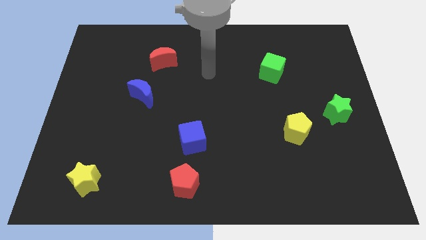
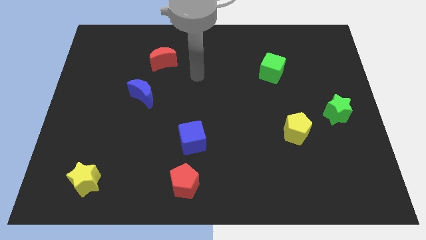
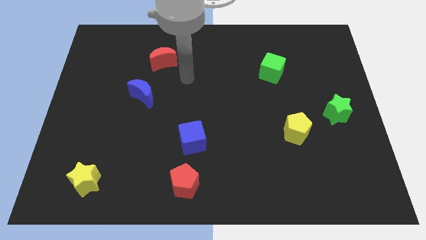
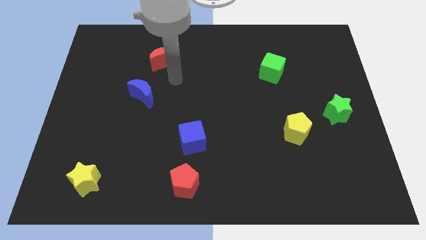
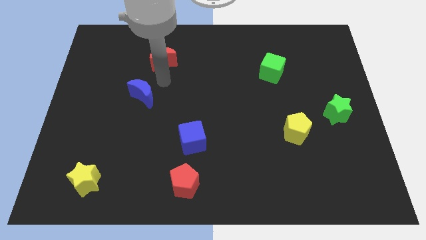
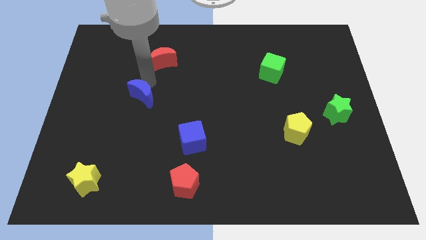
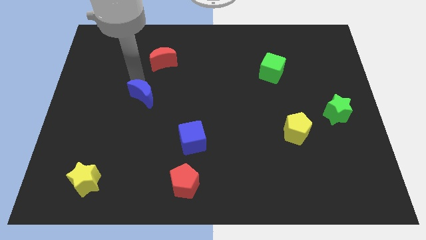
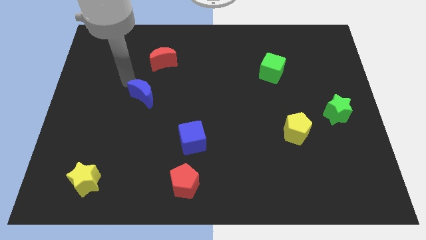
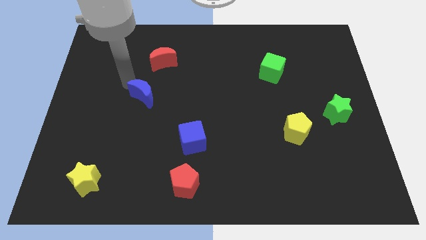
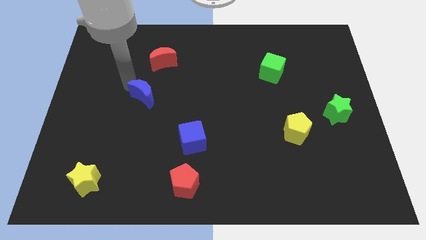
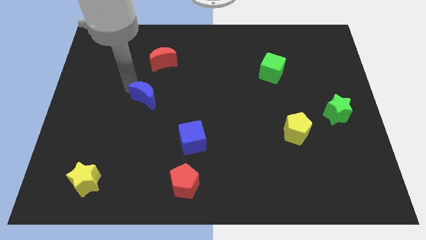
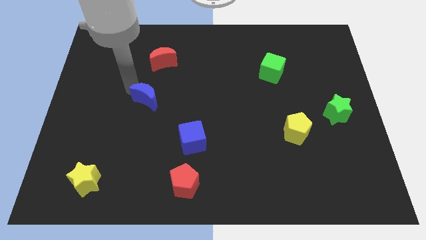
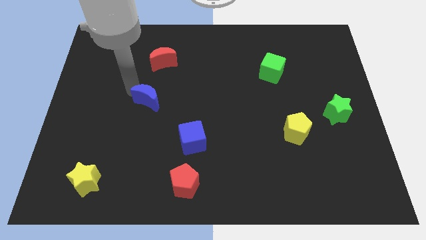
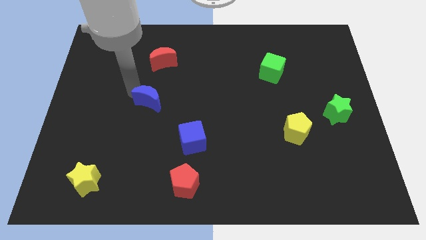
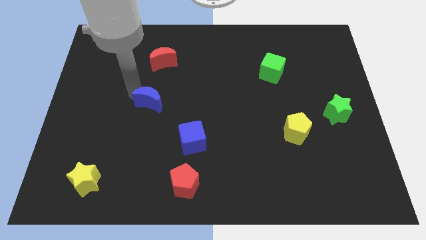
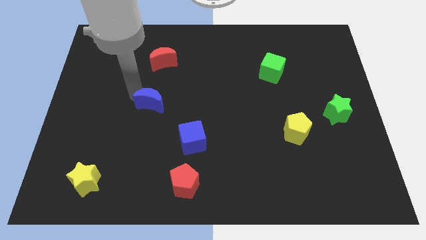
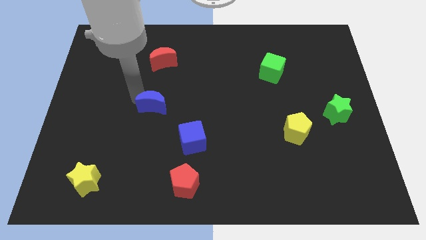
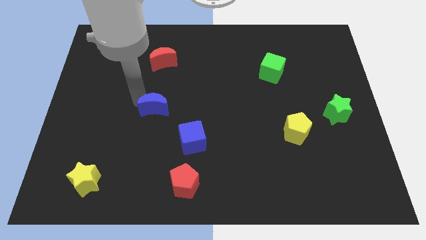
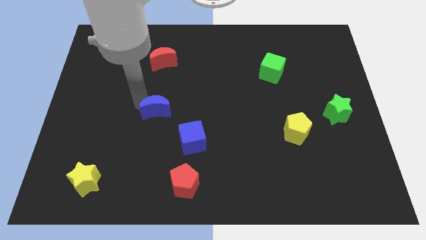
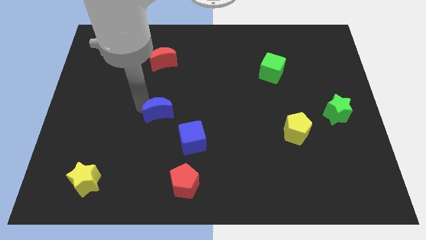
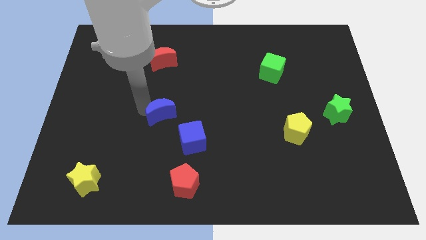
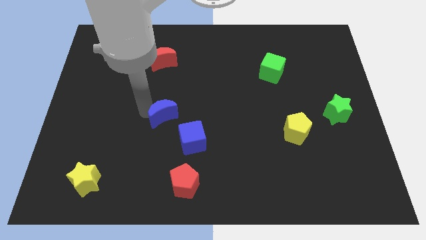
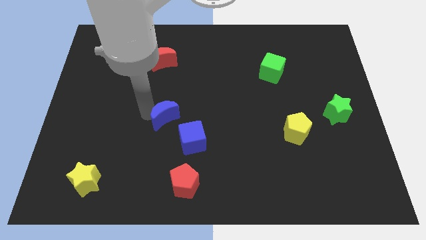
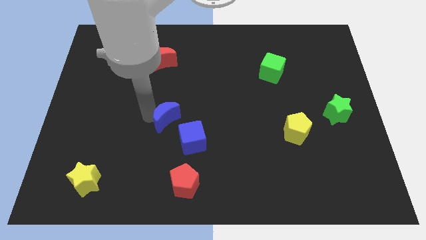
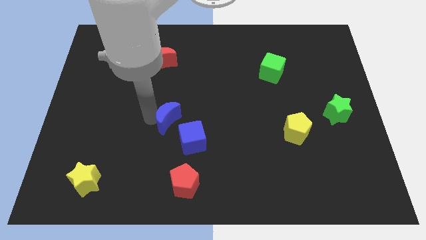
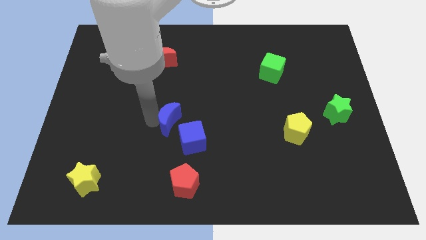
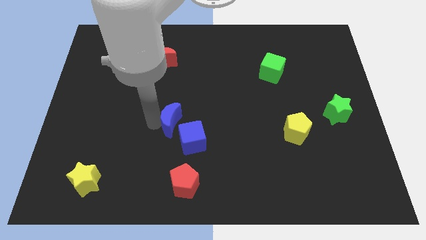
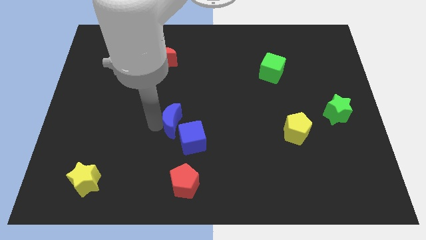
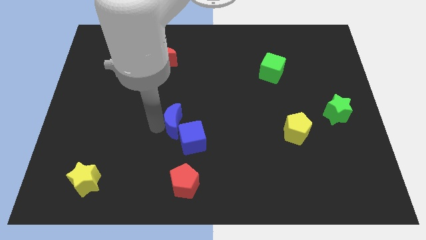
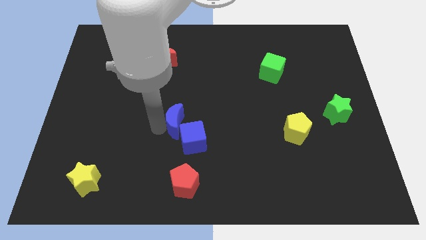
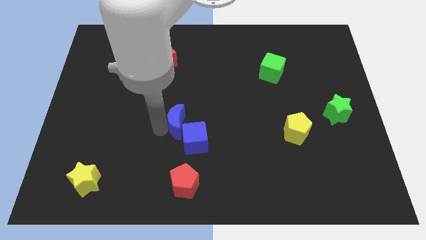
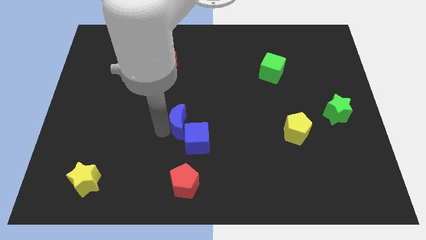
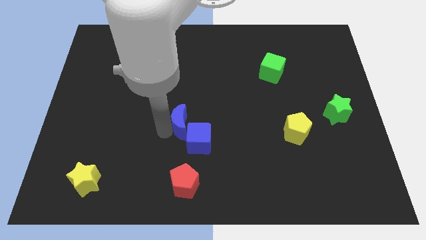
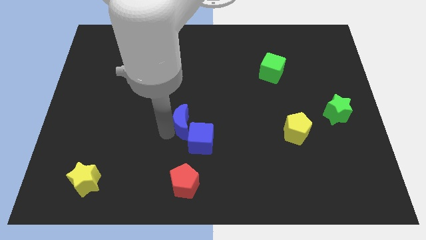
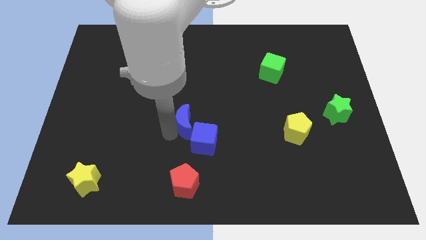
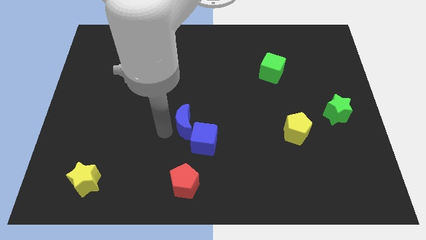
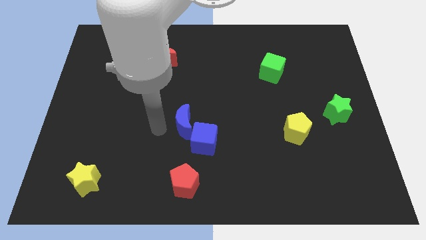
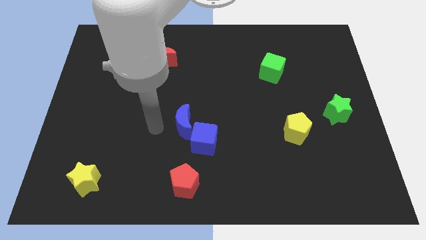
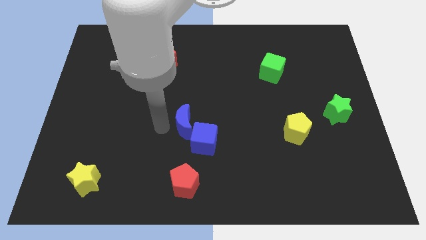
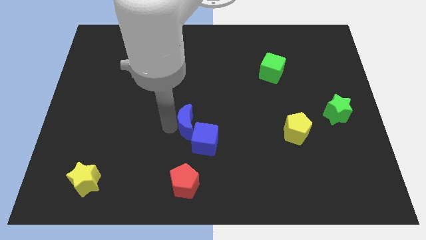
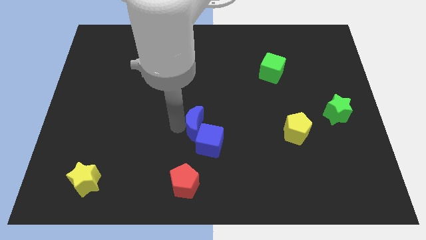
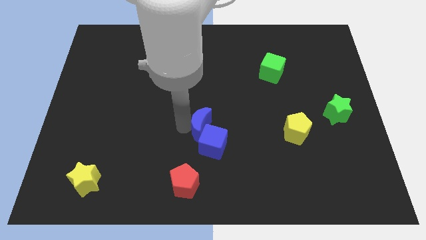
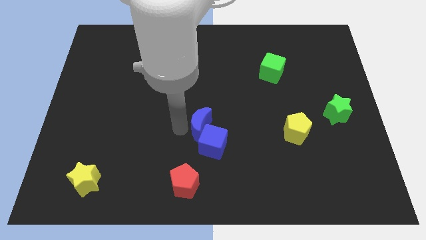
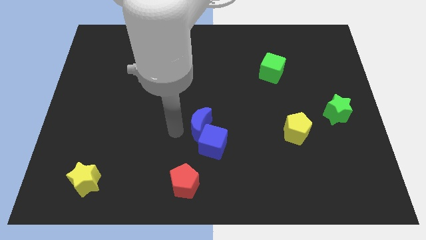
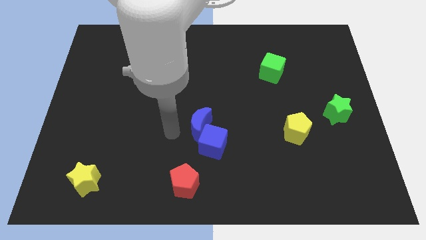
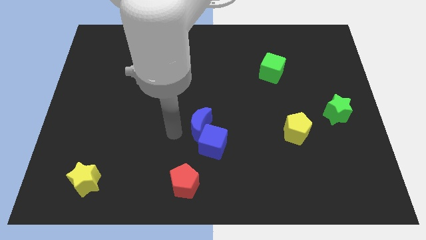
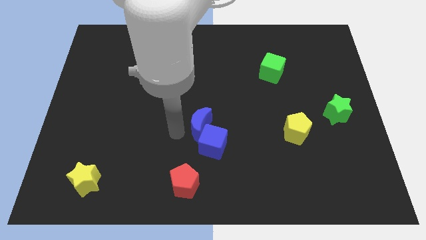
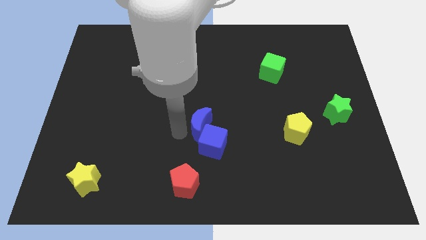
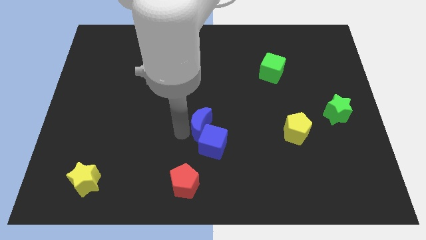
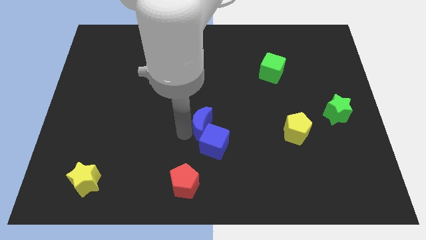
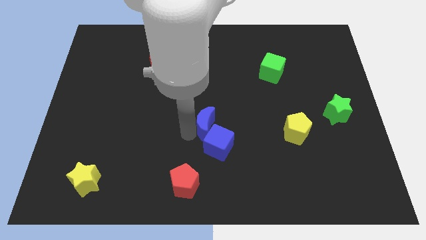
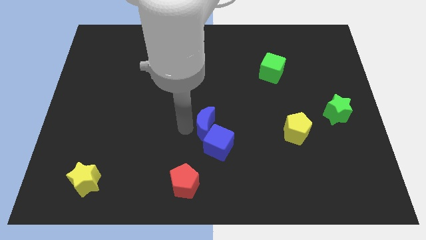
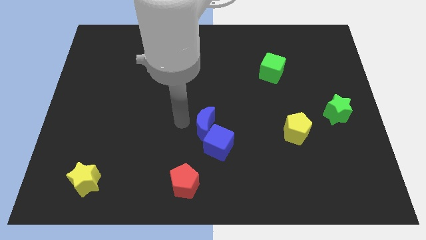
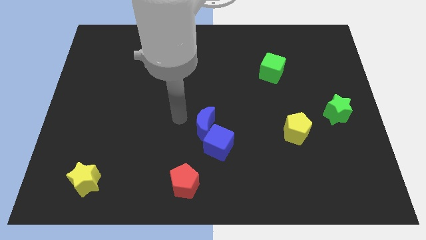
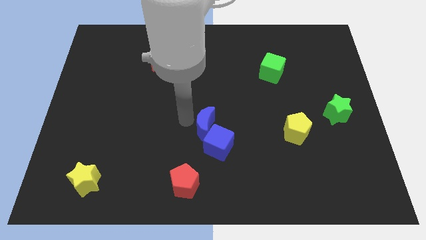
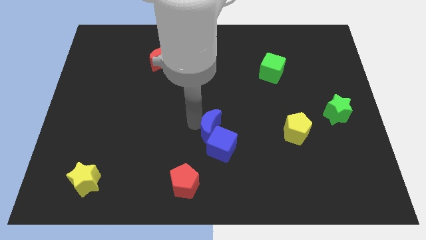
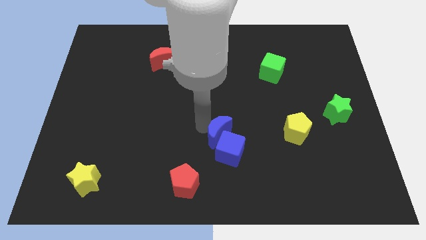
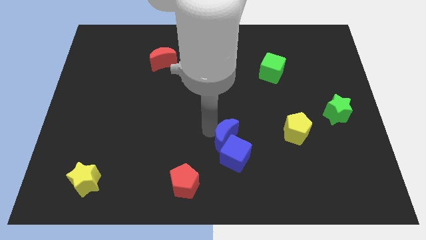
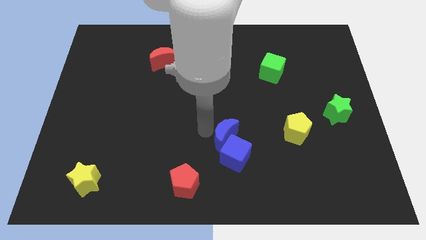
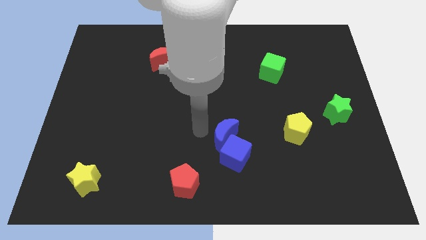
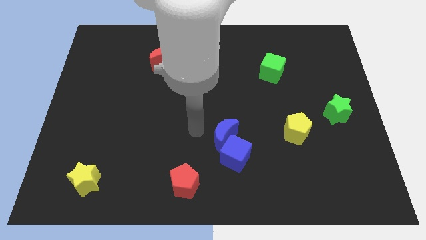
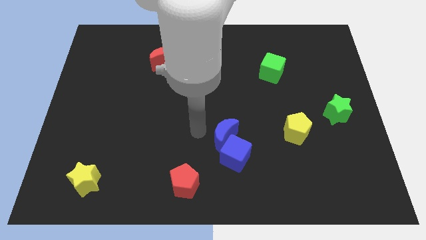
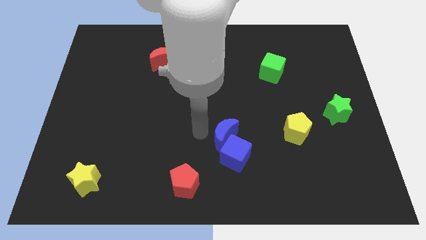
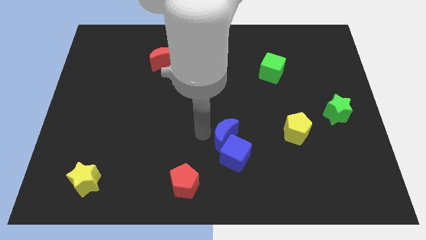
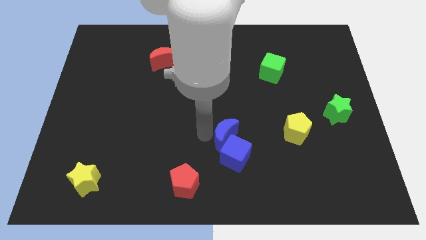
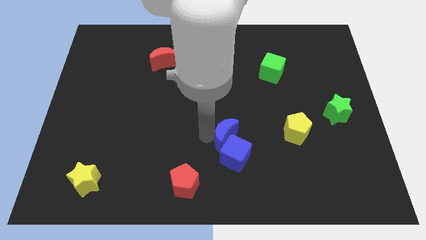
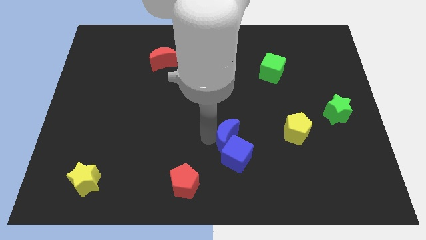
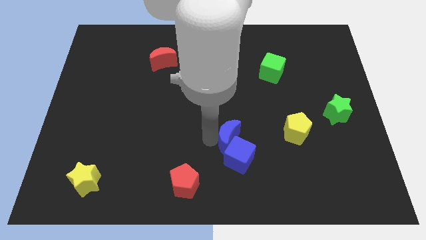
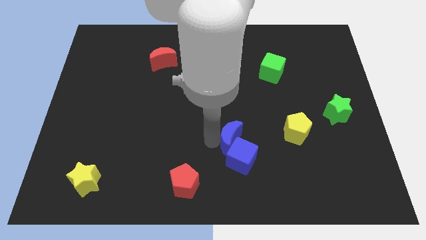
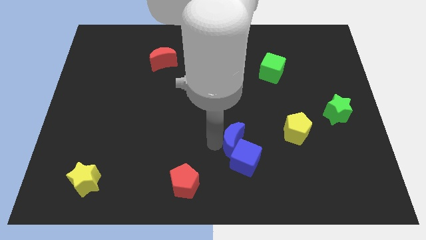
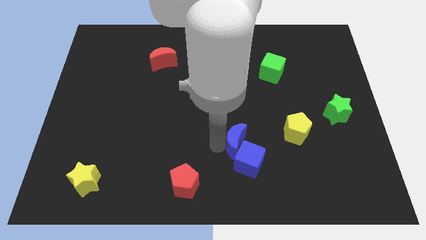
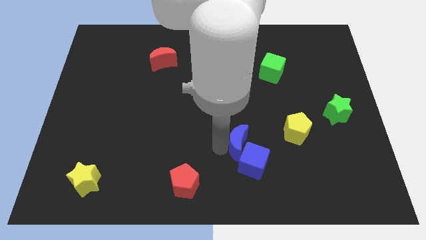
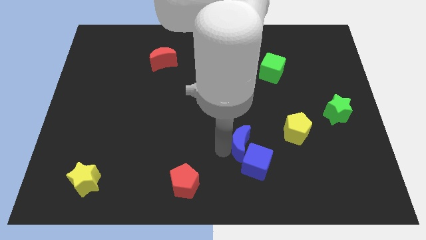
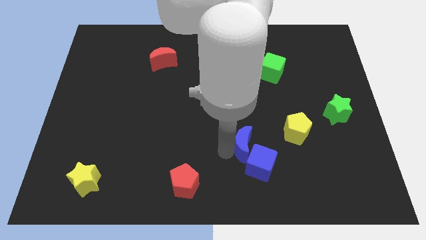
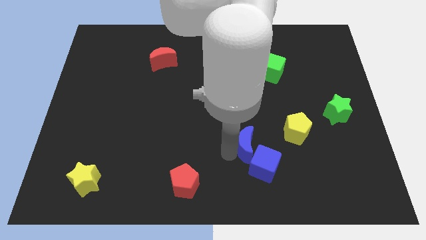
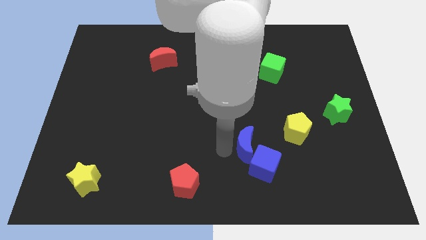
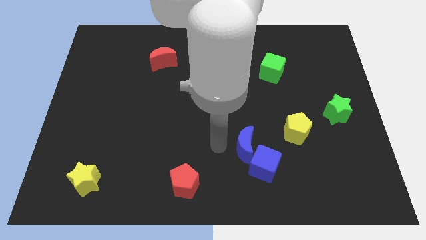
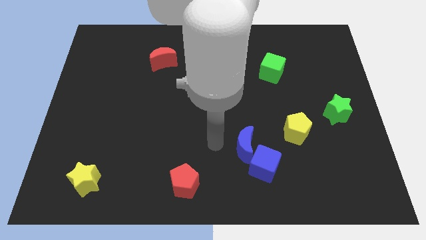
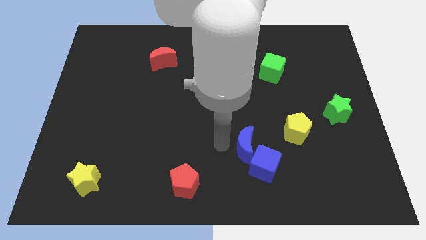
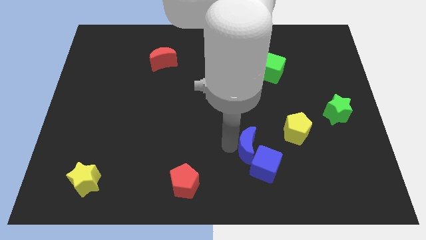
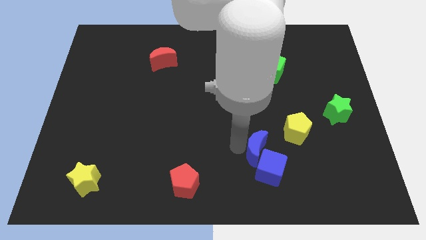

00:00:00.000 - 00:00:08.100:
push the blue moon diagonally down and to the left of the yellow pentagon
